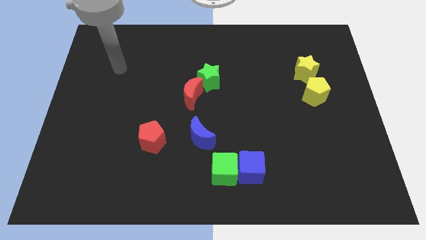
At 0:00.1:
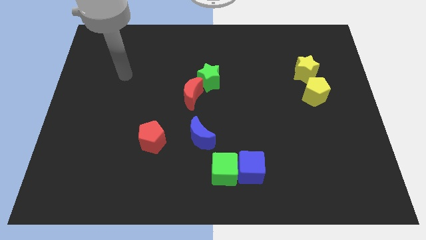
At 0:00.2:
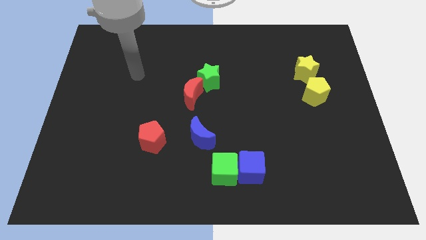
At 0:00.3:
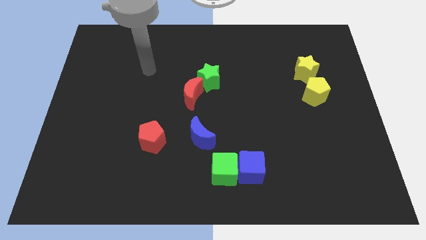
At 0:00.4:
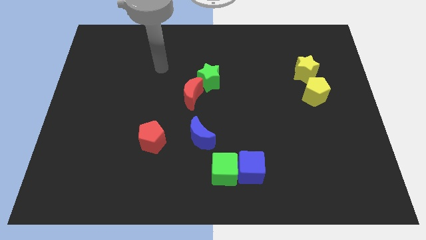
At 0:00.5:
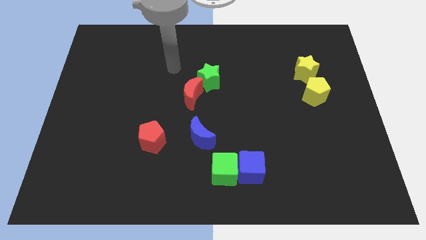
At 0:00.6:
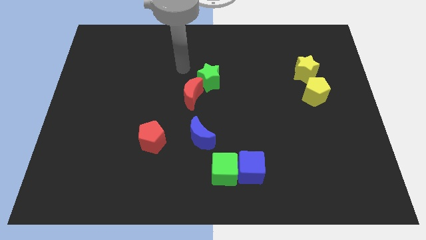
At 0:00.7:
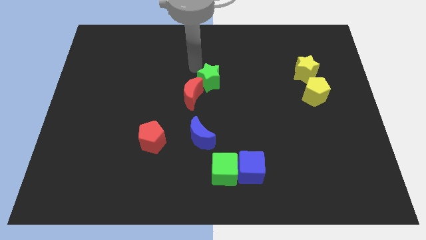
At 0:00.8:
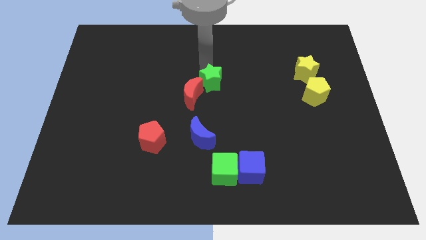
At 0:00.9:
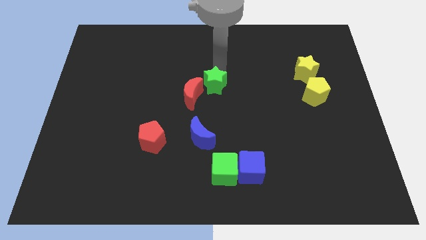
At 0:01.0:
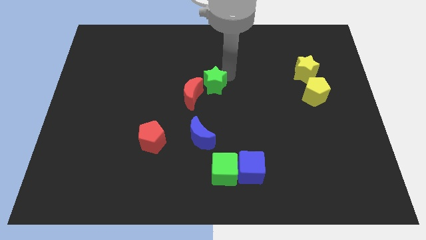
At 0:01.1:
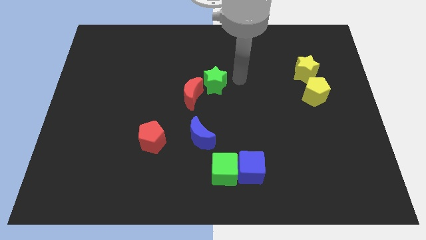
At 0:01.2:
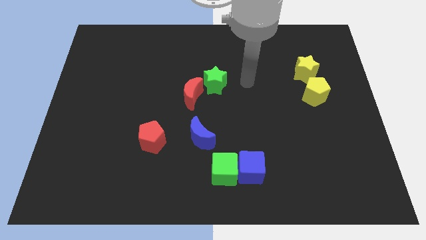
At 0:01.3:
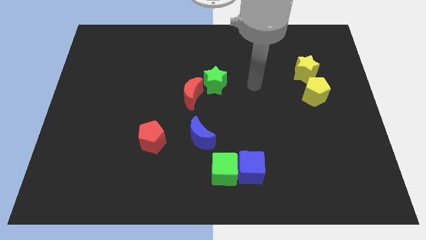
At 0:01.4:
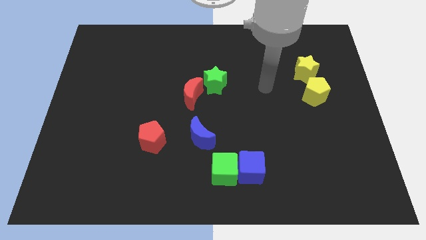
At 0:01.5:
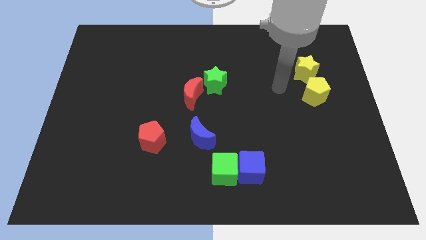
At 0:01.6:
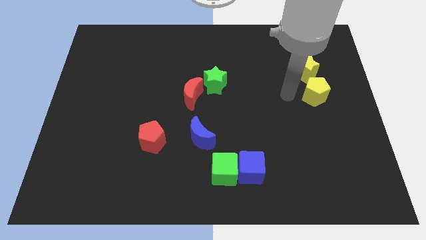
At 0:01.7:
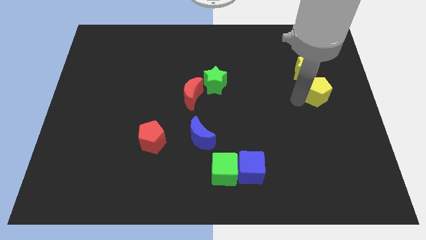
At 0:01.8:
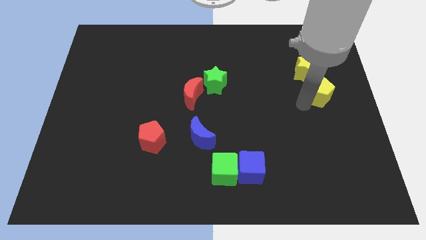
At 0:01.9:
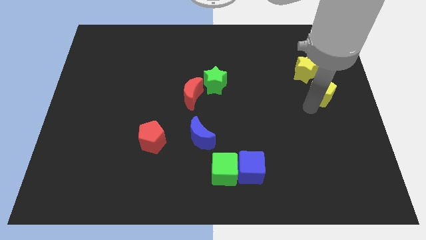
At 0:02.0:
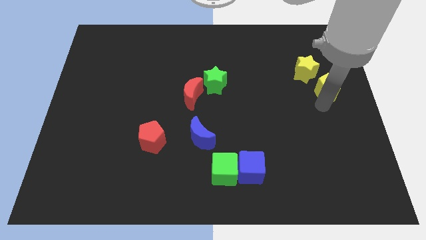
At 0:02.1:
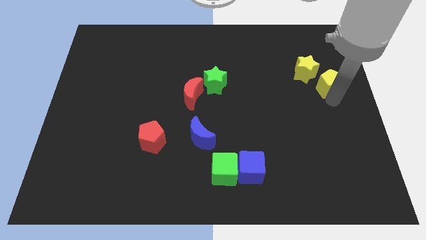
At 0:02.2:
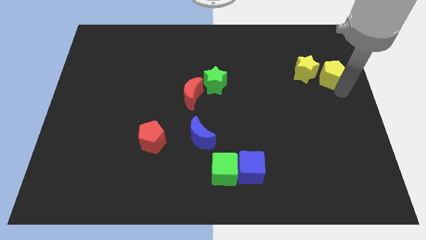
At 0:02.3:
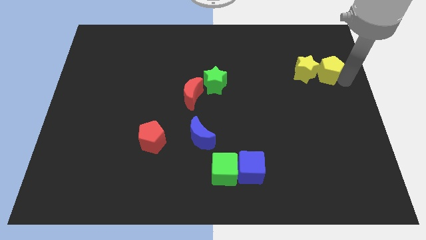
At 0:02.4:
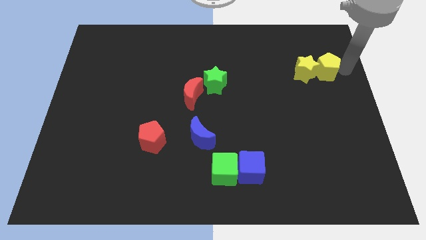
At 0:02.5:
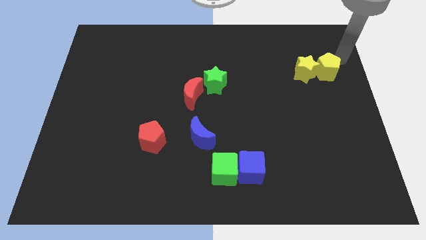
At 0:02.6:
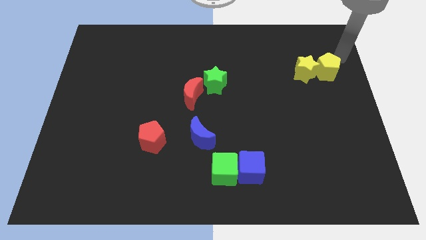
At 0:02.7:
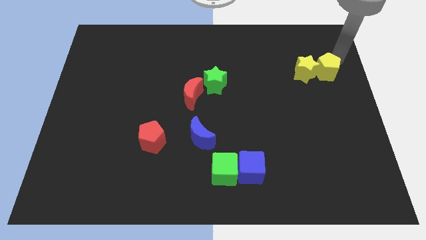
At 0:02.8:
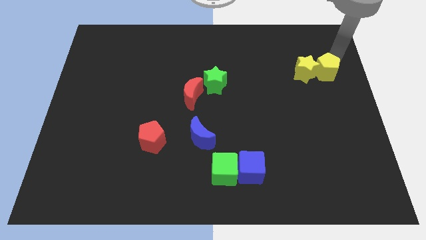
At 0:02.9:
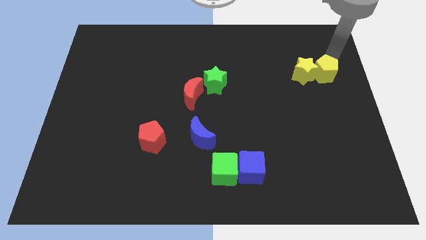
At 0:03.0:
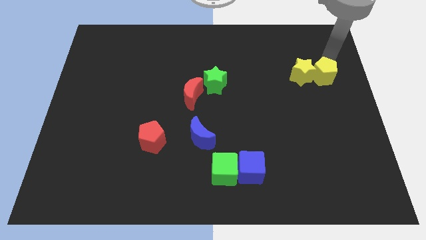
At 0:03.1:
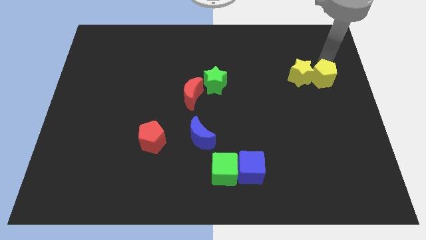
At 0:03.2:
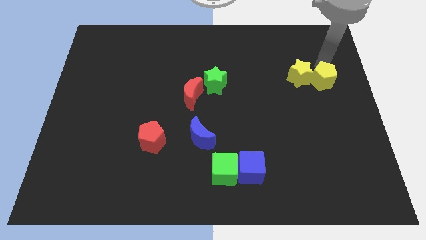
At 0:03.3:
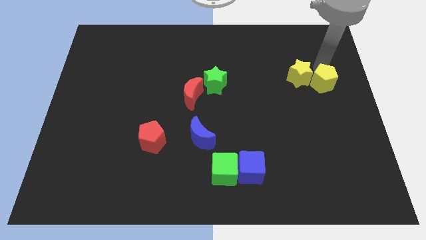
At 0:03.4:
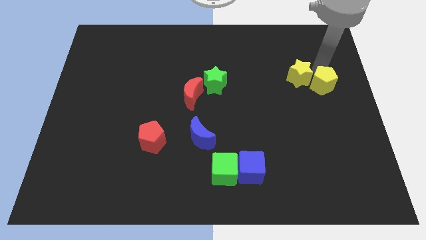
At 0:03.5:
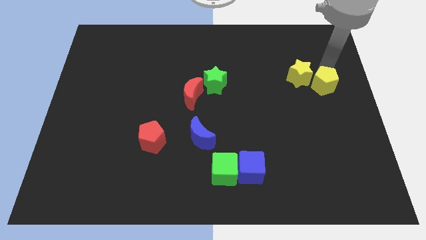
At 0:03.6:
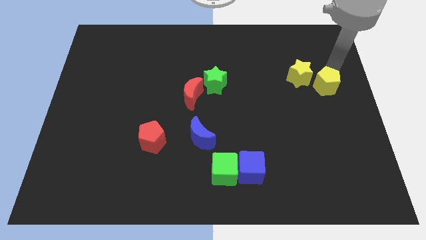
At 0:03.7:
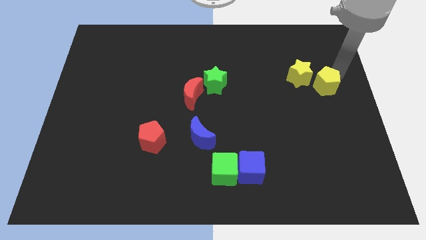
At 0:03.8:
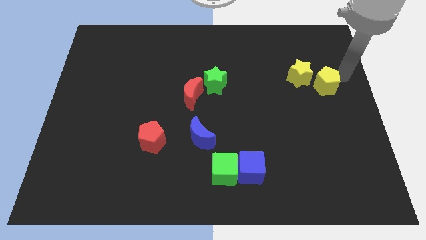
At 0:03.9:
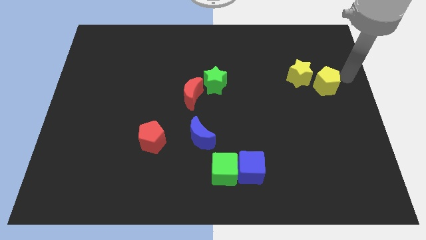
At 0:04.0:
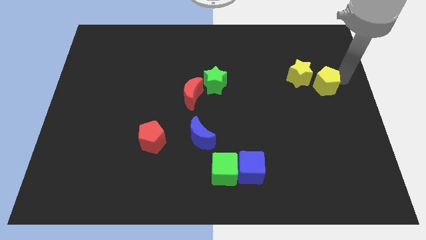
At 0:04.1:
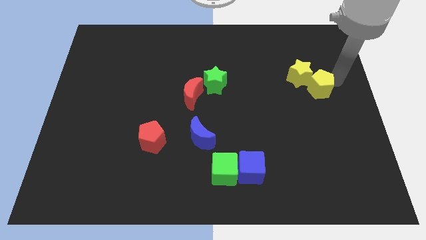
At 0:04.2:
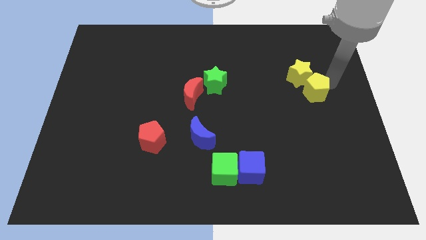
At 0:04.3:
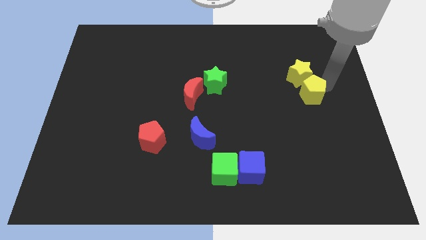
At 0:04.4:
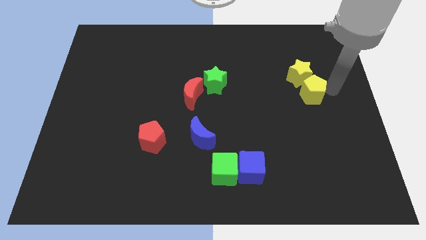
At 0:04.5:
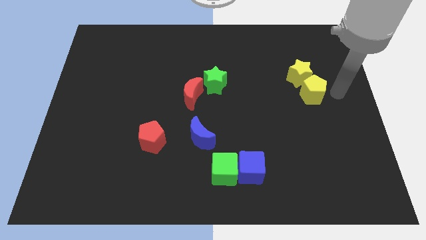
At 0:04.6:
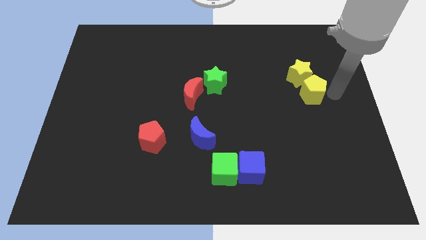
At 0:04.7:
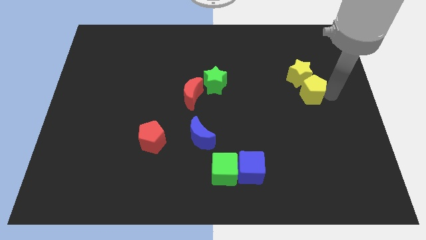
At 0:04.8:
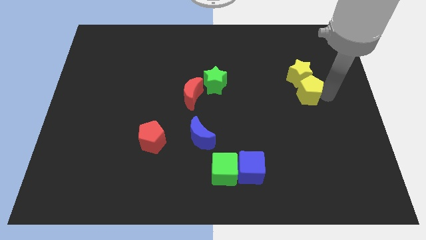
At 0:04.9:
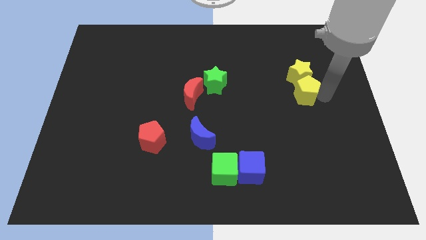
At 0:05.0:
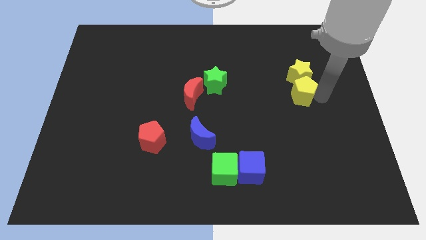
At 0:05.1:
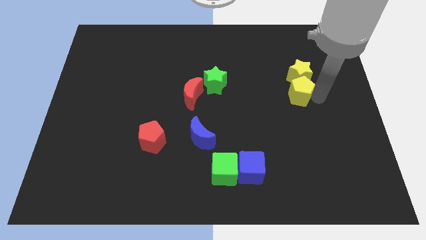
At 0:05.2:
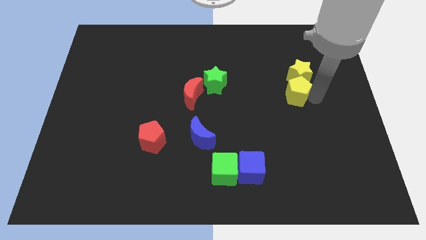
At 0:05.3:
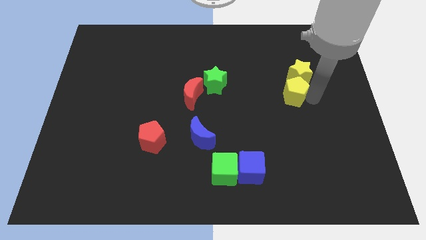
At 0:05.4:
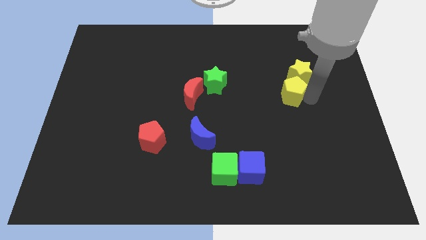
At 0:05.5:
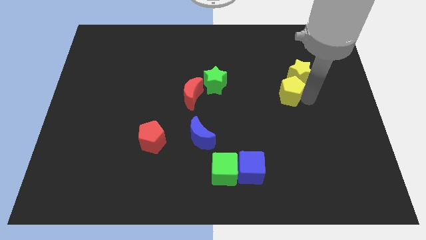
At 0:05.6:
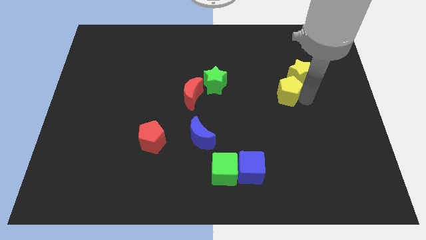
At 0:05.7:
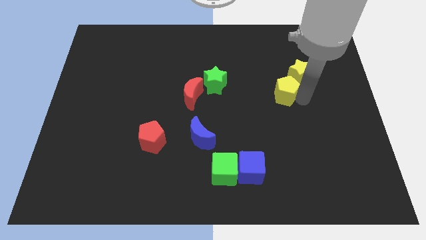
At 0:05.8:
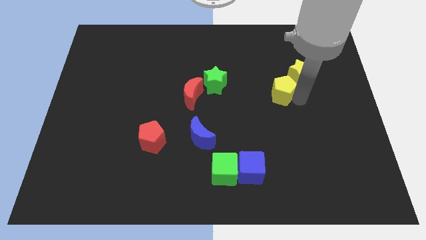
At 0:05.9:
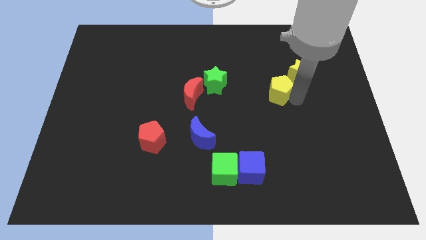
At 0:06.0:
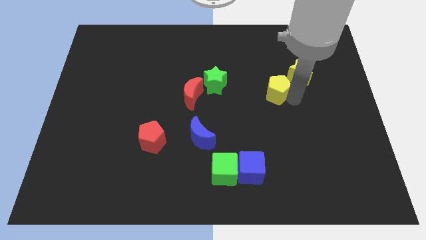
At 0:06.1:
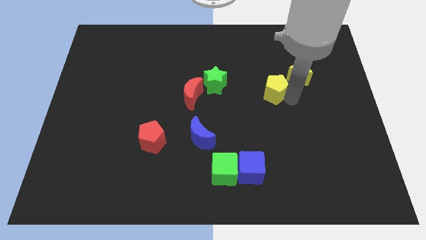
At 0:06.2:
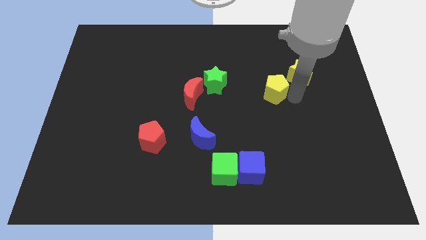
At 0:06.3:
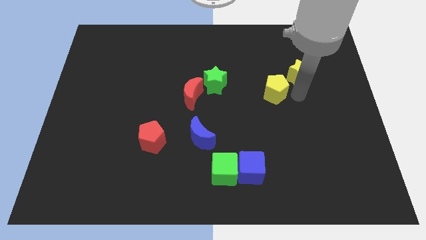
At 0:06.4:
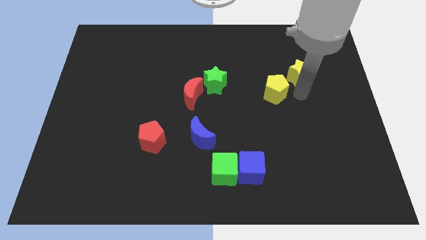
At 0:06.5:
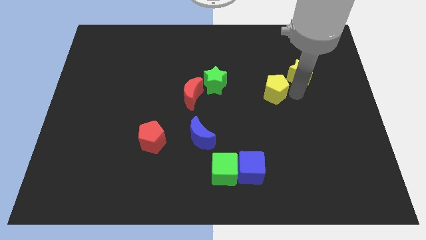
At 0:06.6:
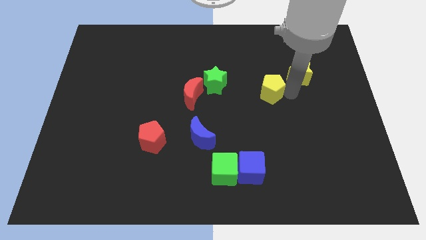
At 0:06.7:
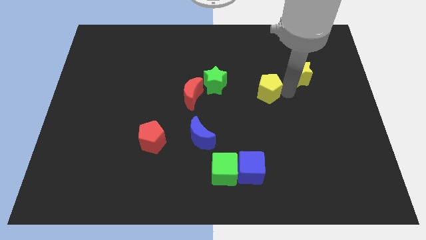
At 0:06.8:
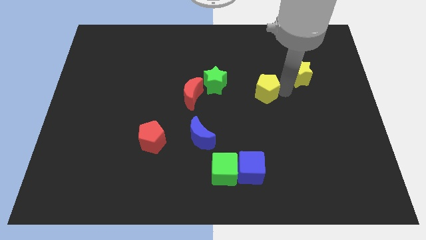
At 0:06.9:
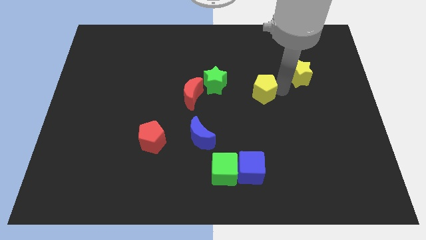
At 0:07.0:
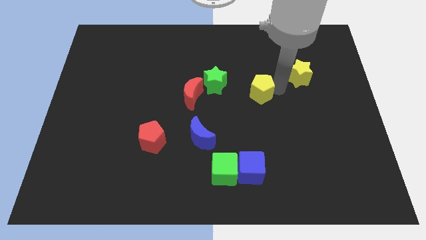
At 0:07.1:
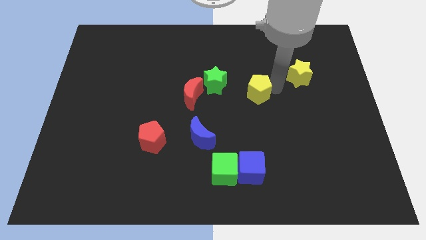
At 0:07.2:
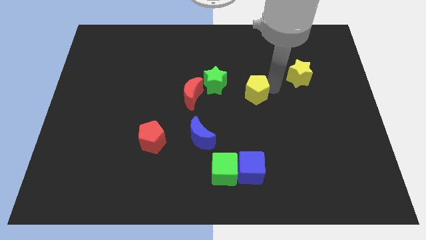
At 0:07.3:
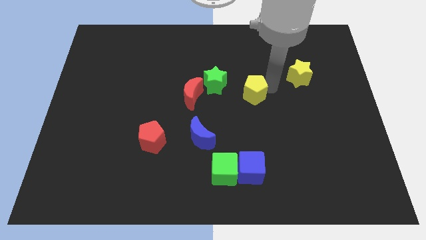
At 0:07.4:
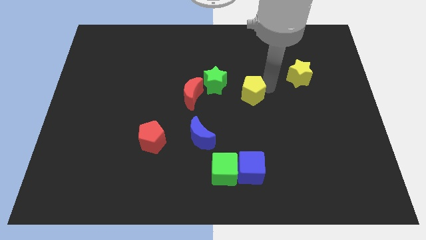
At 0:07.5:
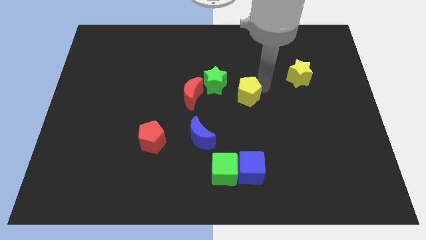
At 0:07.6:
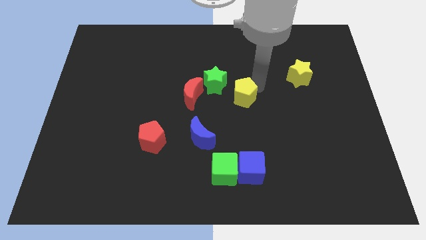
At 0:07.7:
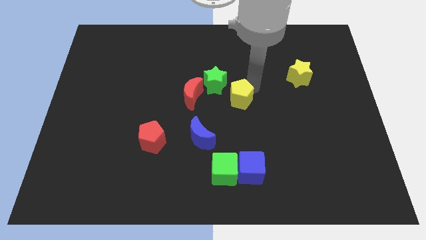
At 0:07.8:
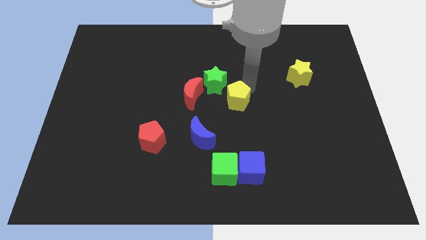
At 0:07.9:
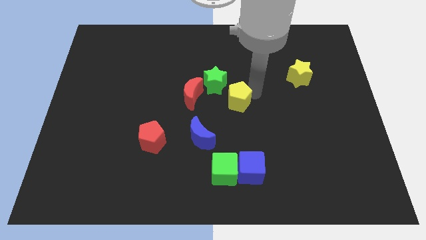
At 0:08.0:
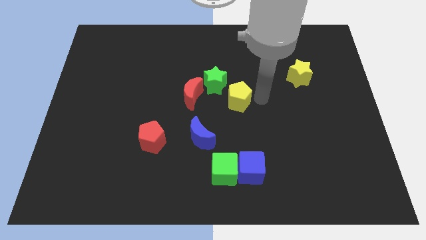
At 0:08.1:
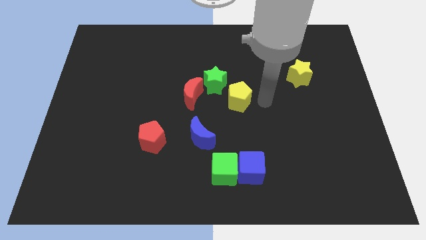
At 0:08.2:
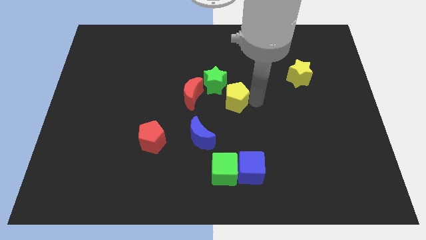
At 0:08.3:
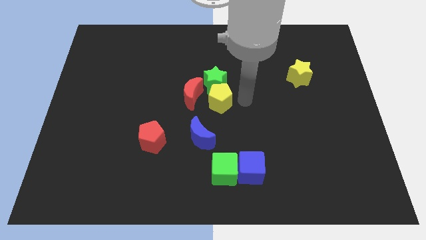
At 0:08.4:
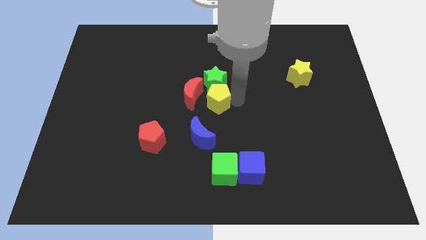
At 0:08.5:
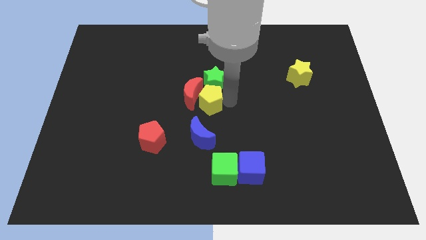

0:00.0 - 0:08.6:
slide the yellow pentagon to the red moon
